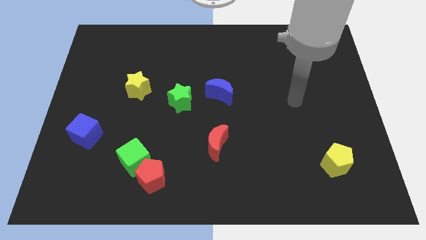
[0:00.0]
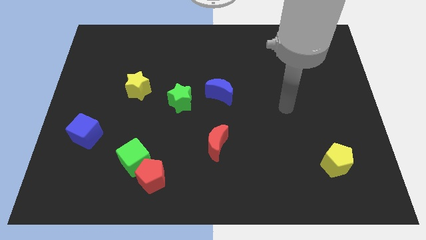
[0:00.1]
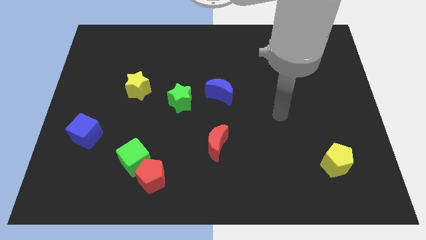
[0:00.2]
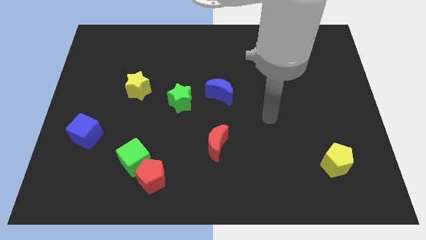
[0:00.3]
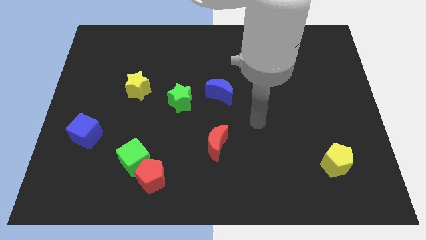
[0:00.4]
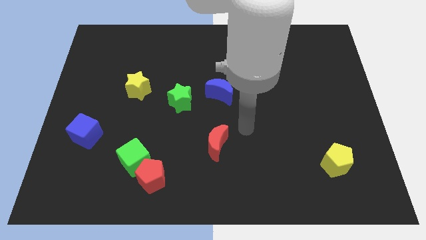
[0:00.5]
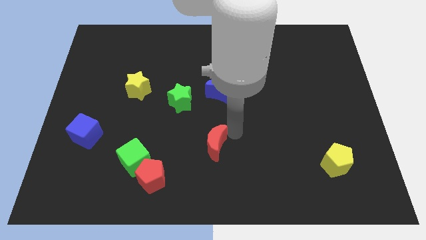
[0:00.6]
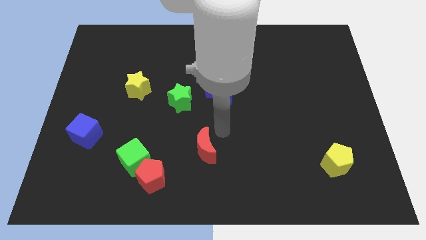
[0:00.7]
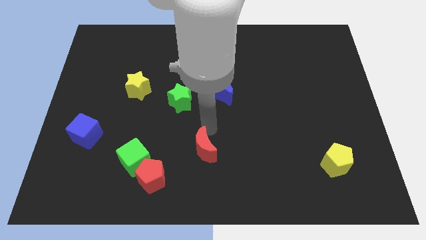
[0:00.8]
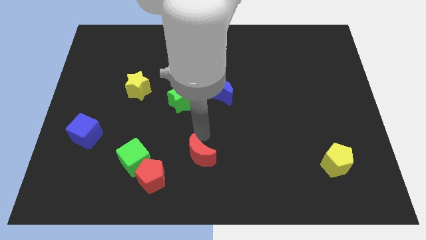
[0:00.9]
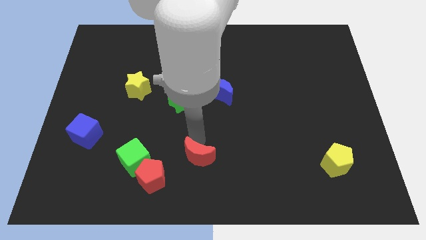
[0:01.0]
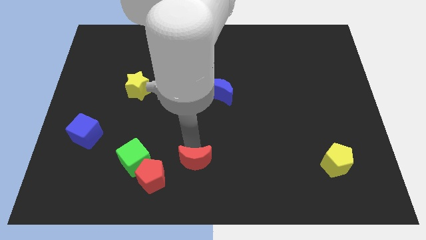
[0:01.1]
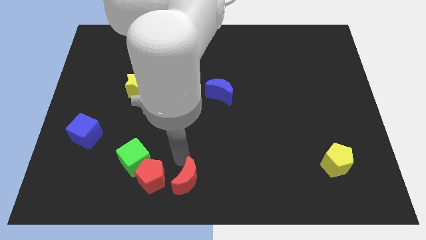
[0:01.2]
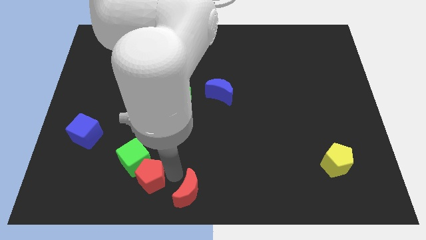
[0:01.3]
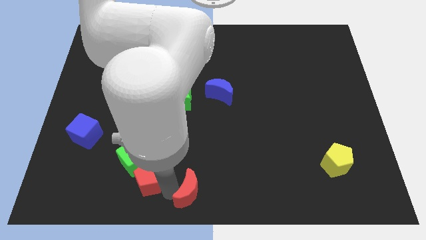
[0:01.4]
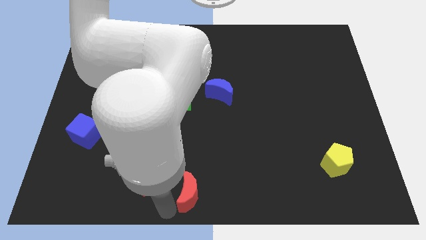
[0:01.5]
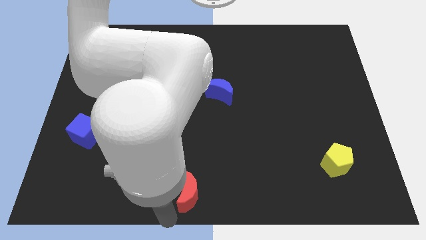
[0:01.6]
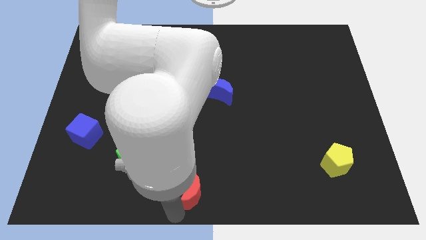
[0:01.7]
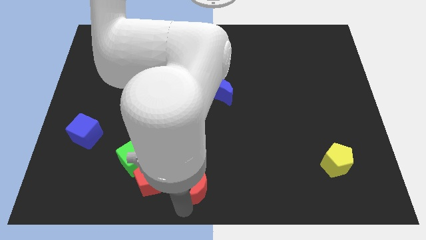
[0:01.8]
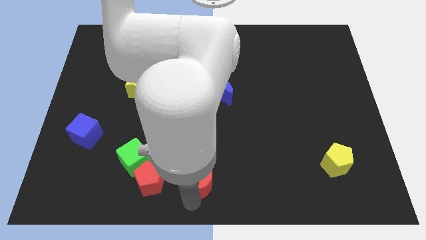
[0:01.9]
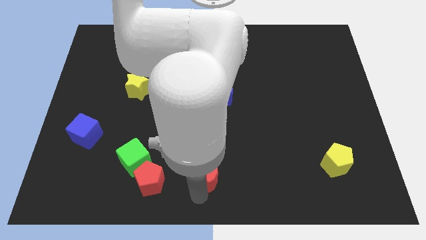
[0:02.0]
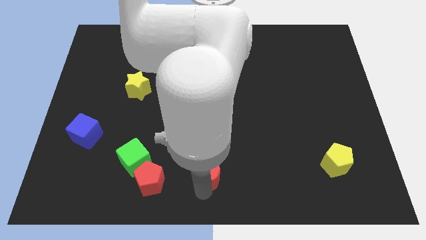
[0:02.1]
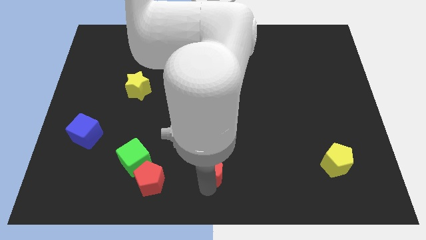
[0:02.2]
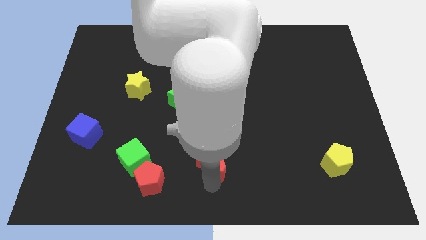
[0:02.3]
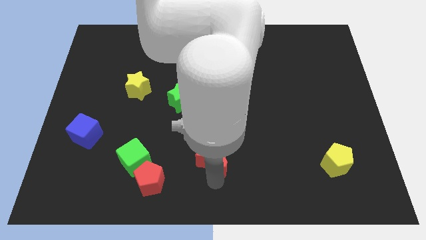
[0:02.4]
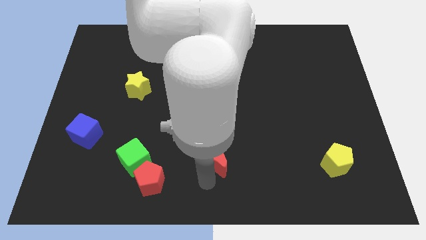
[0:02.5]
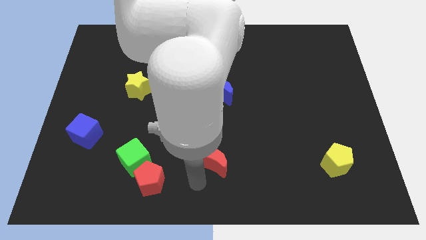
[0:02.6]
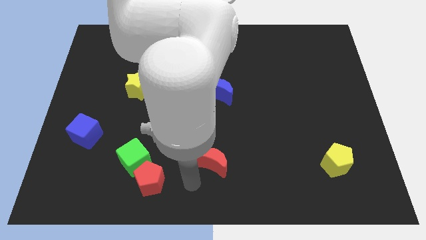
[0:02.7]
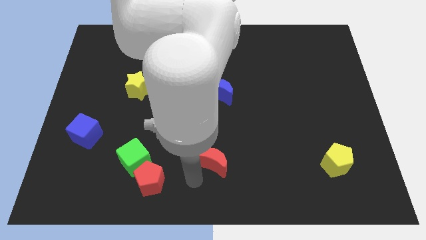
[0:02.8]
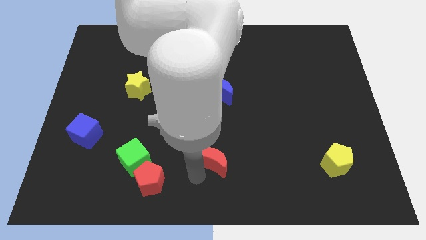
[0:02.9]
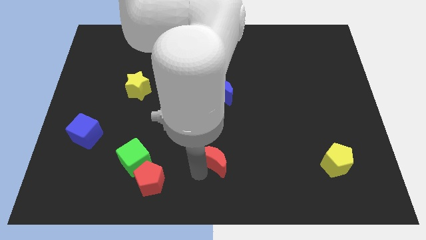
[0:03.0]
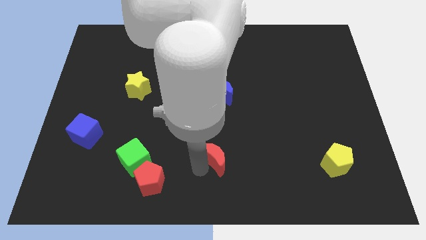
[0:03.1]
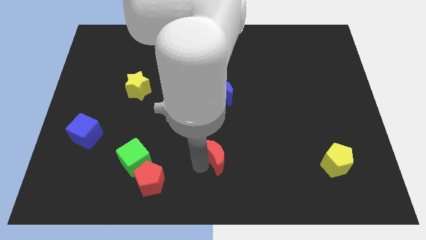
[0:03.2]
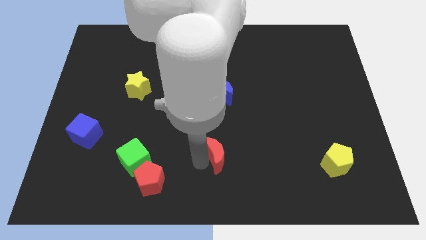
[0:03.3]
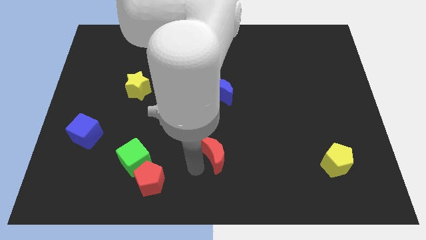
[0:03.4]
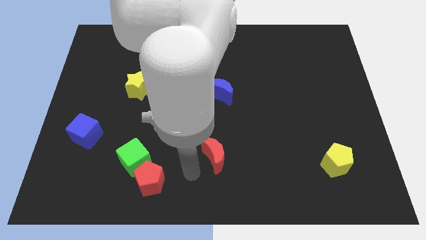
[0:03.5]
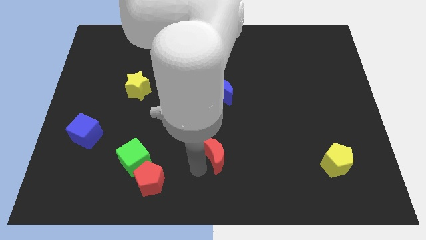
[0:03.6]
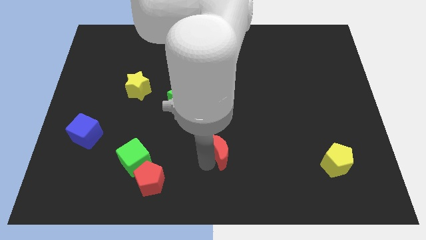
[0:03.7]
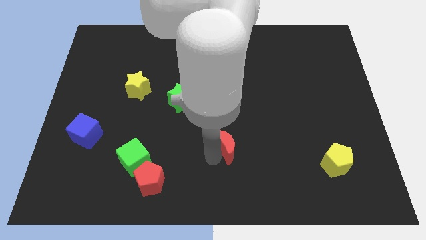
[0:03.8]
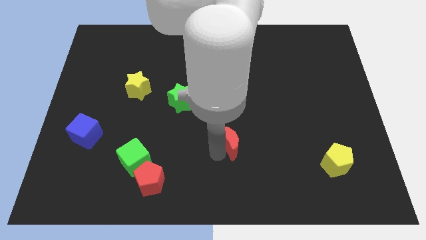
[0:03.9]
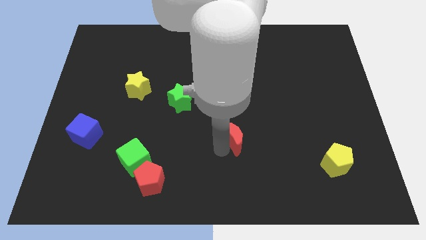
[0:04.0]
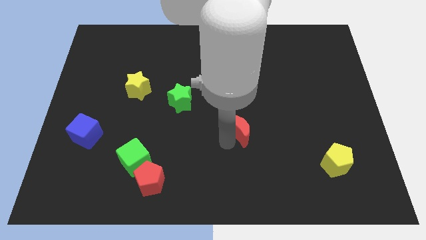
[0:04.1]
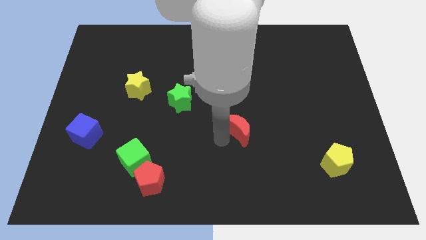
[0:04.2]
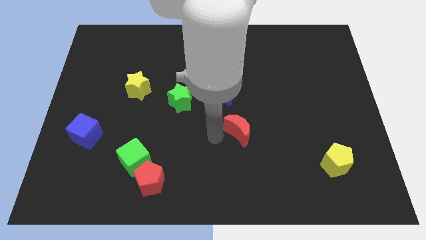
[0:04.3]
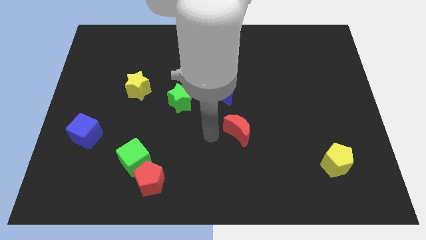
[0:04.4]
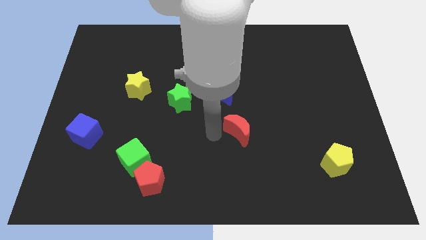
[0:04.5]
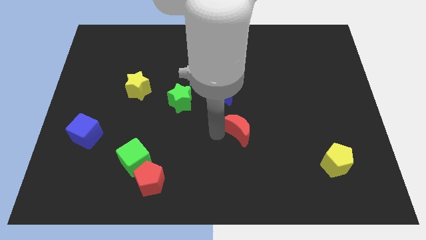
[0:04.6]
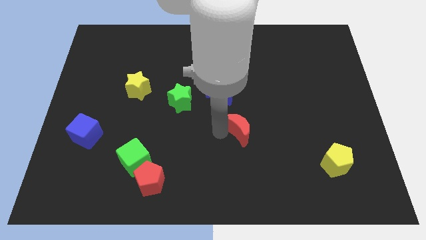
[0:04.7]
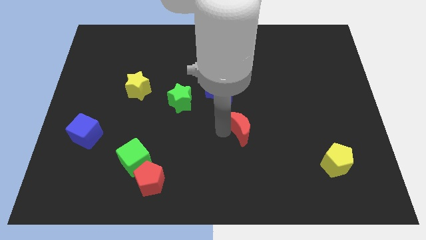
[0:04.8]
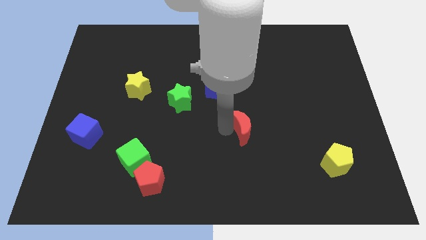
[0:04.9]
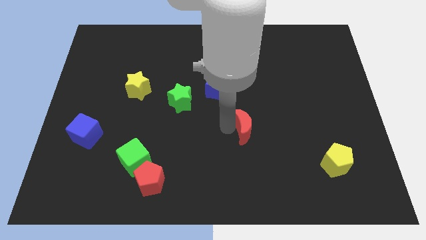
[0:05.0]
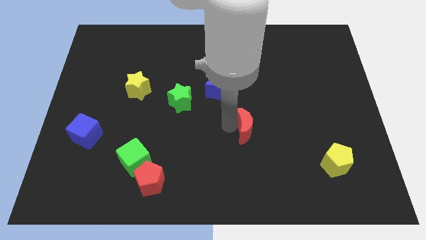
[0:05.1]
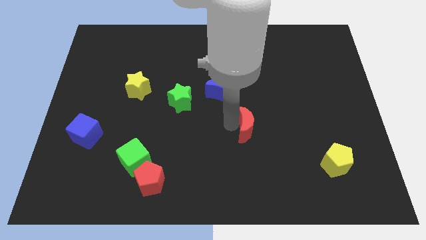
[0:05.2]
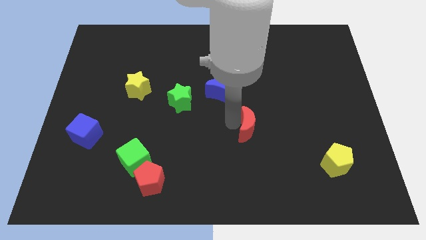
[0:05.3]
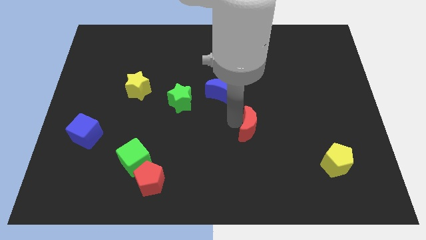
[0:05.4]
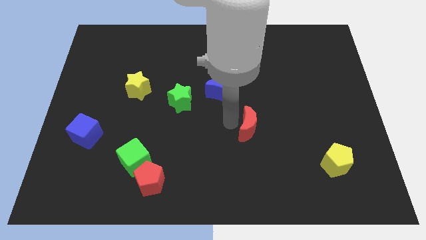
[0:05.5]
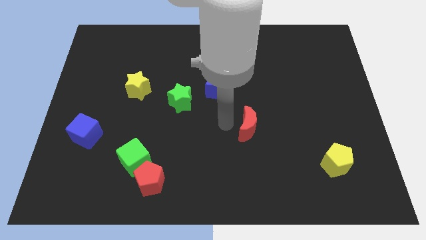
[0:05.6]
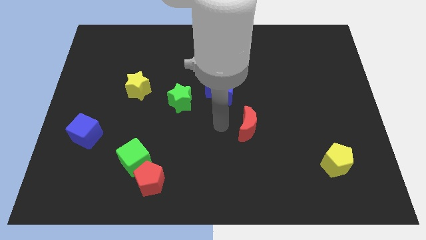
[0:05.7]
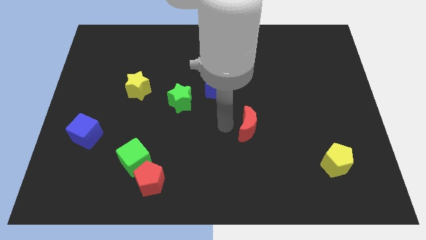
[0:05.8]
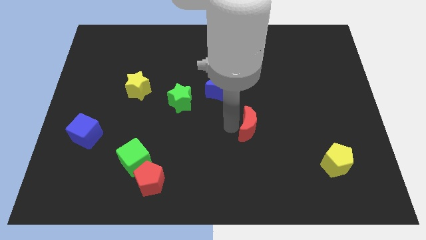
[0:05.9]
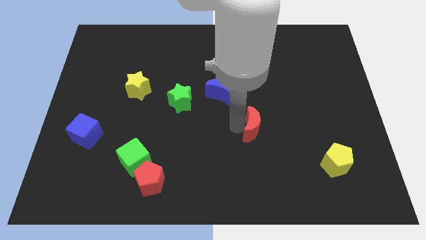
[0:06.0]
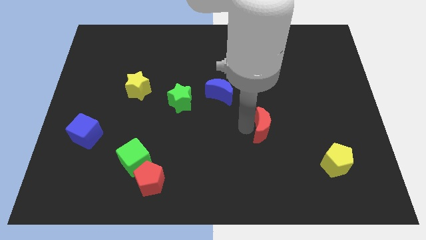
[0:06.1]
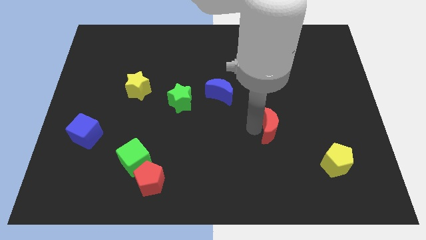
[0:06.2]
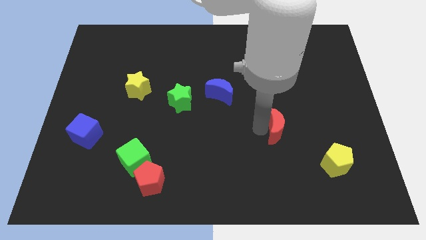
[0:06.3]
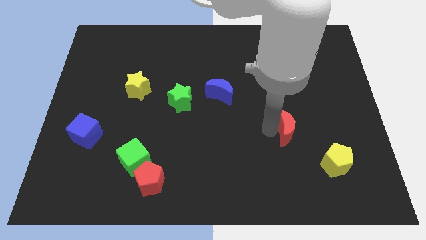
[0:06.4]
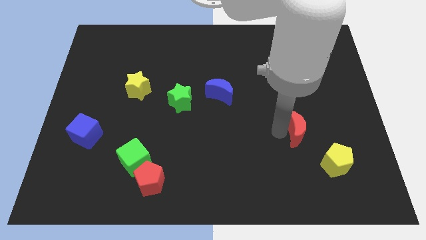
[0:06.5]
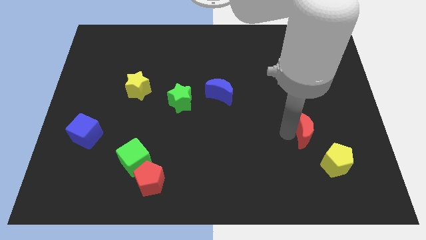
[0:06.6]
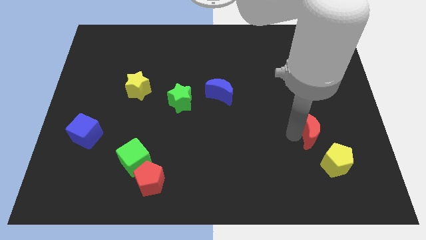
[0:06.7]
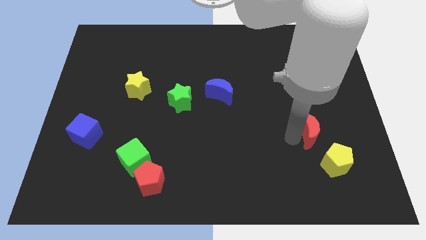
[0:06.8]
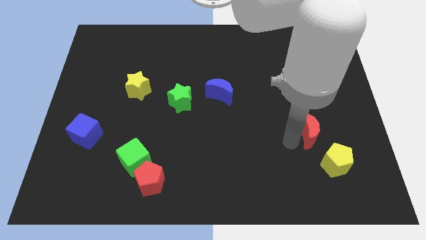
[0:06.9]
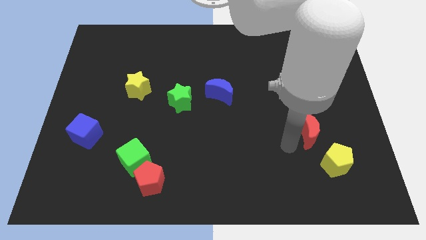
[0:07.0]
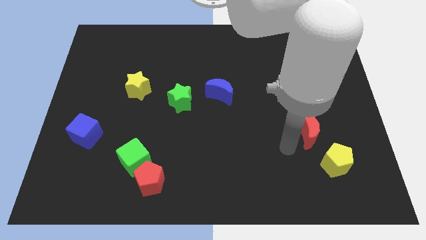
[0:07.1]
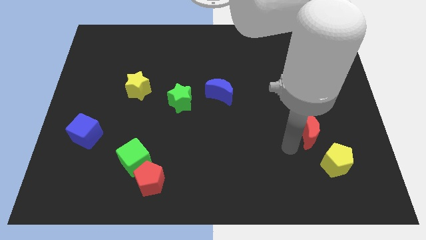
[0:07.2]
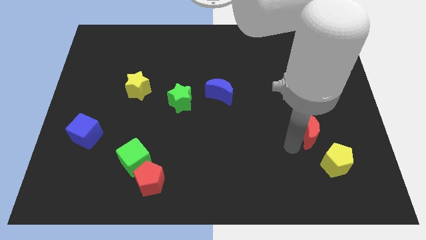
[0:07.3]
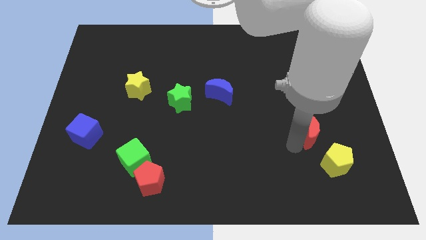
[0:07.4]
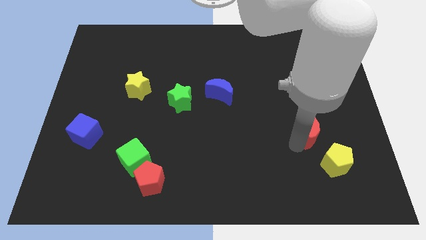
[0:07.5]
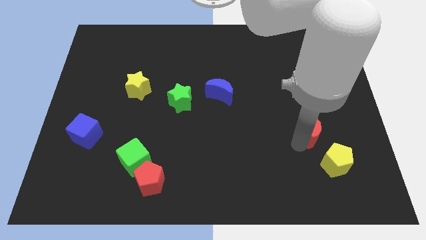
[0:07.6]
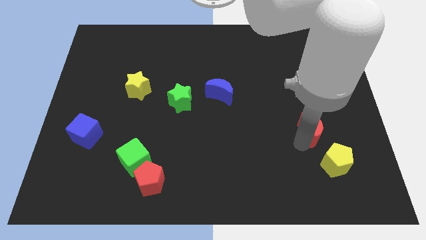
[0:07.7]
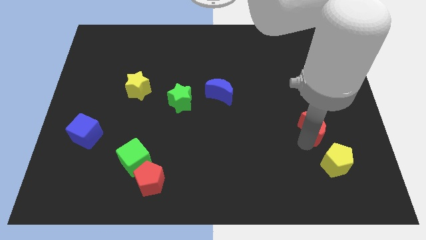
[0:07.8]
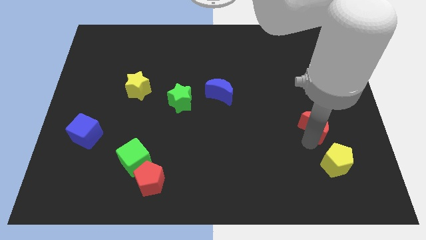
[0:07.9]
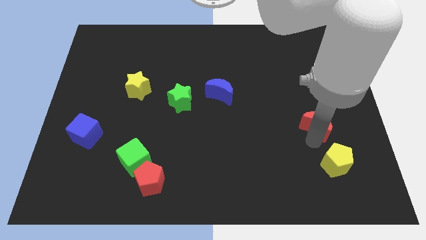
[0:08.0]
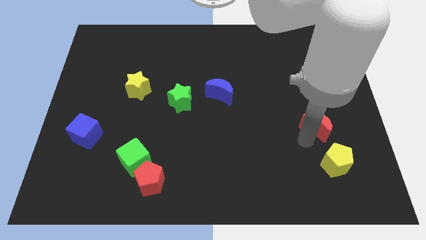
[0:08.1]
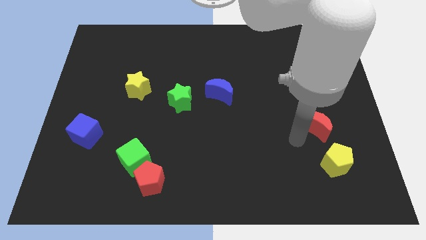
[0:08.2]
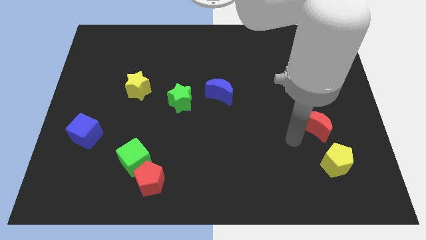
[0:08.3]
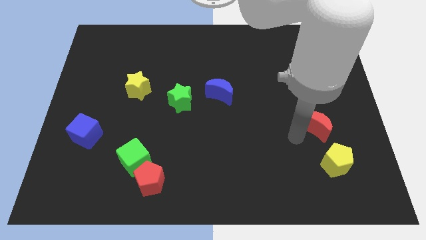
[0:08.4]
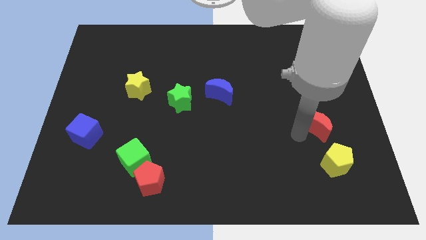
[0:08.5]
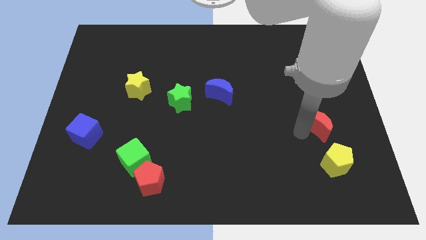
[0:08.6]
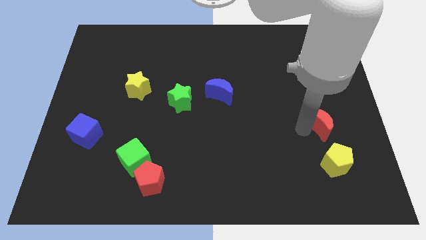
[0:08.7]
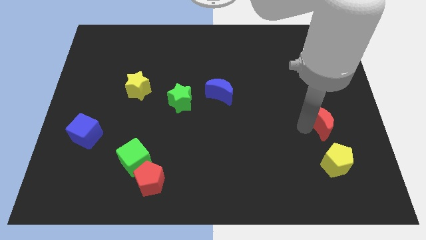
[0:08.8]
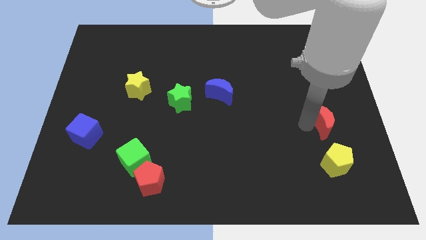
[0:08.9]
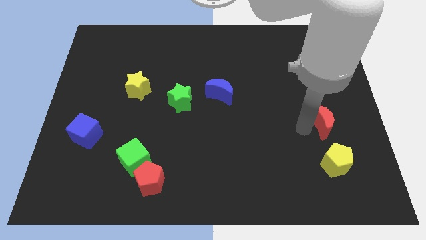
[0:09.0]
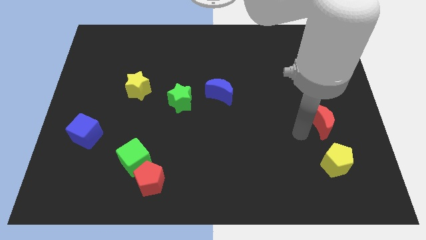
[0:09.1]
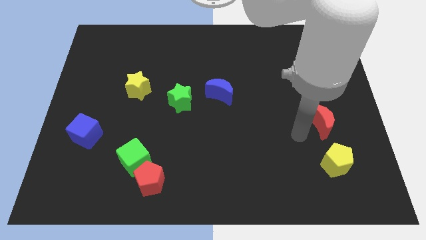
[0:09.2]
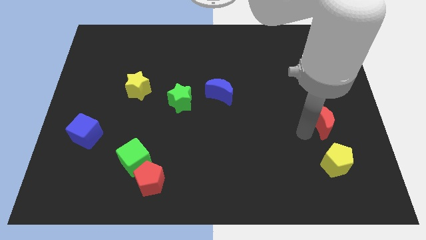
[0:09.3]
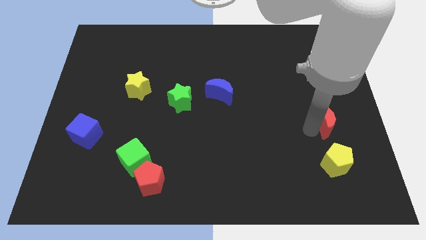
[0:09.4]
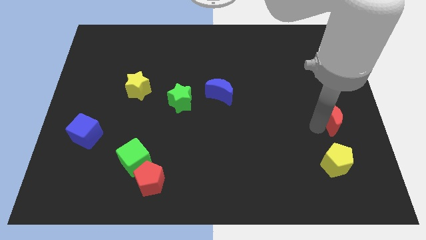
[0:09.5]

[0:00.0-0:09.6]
push the red moon to the right side
